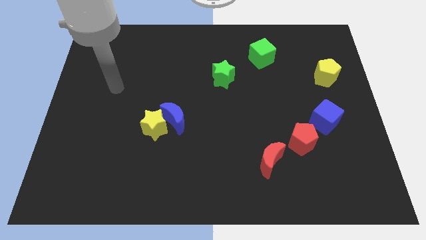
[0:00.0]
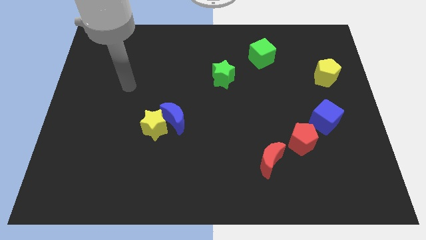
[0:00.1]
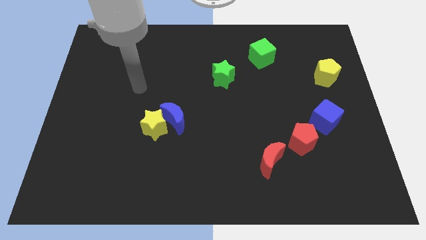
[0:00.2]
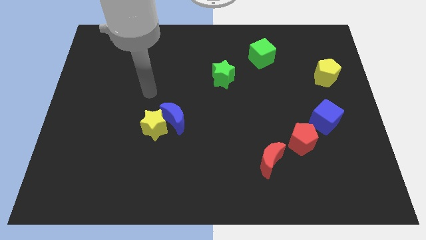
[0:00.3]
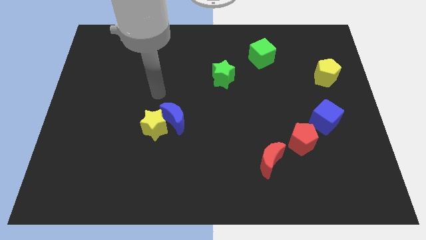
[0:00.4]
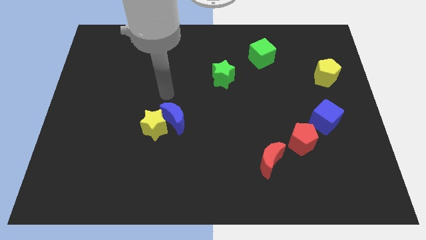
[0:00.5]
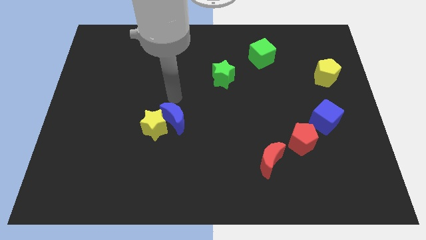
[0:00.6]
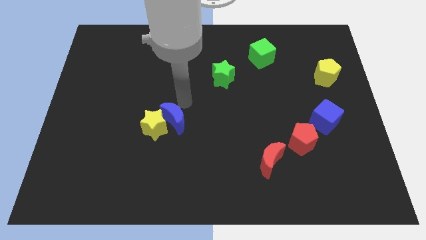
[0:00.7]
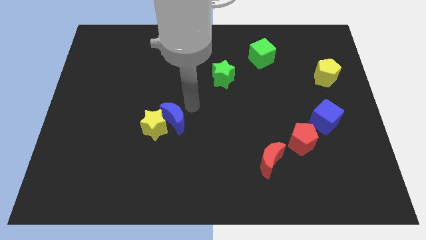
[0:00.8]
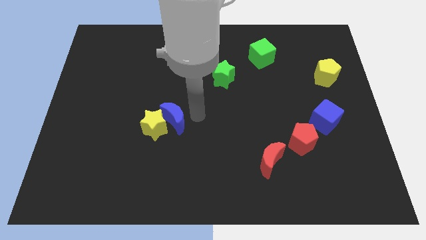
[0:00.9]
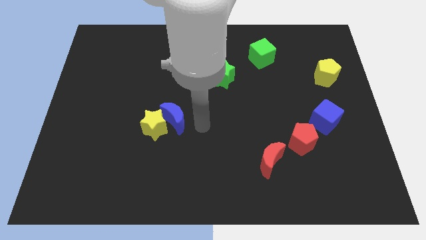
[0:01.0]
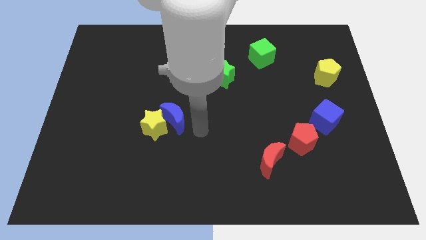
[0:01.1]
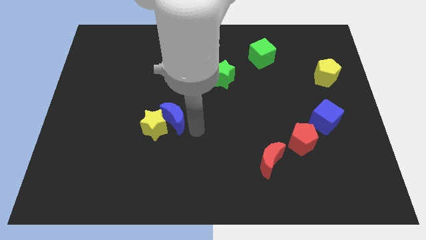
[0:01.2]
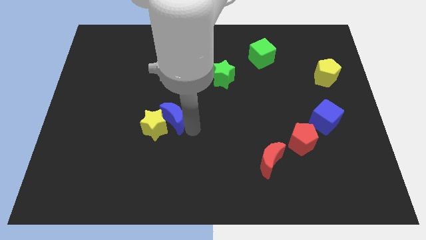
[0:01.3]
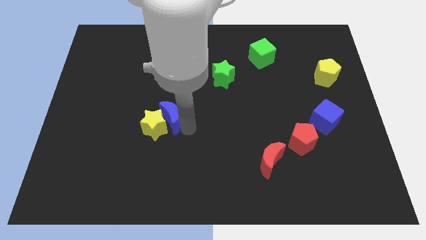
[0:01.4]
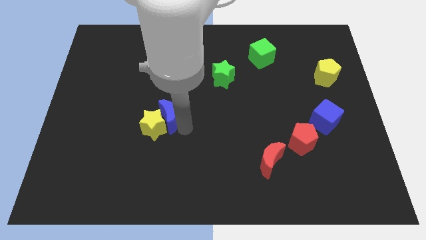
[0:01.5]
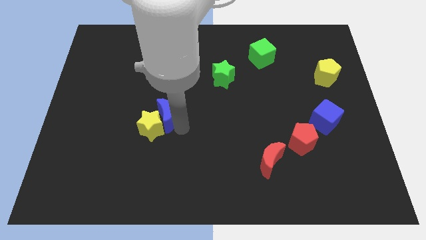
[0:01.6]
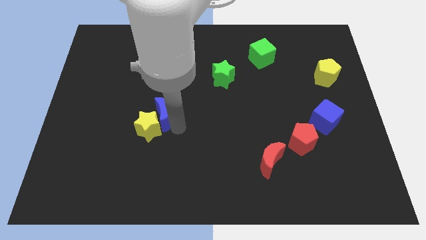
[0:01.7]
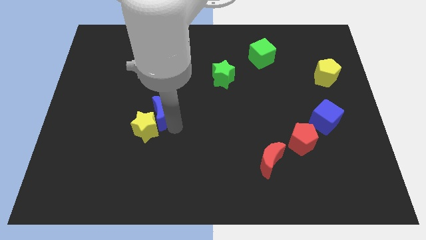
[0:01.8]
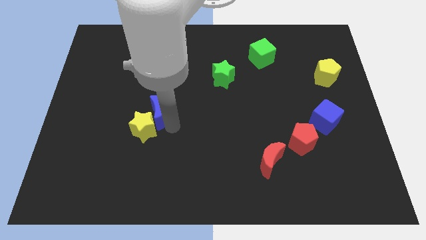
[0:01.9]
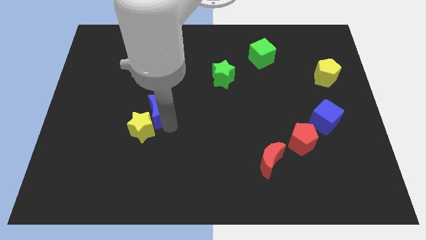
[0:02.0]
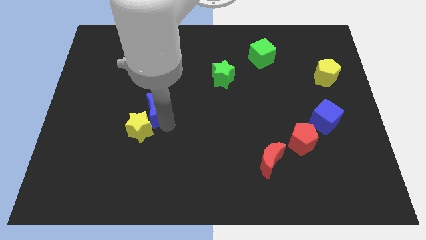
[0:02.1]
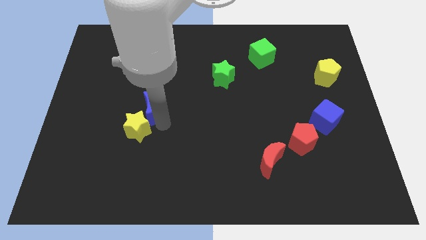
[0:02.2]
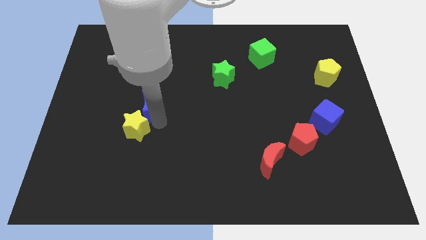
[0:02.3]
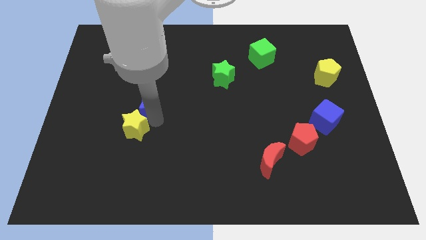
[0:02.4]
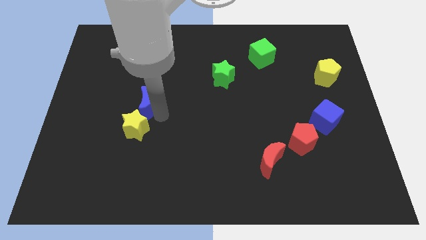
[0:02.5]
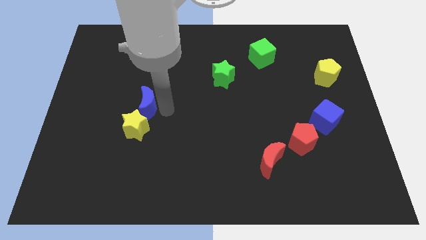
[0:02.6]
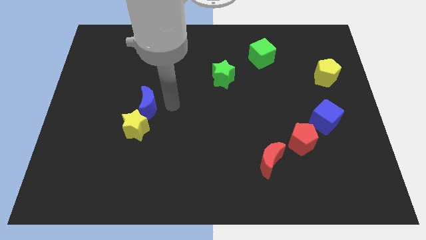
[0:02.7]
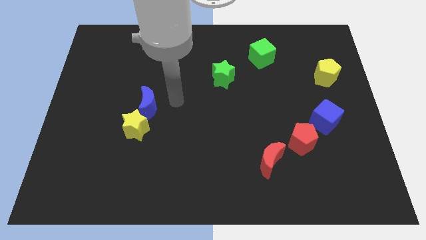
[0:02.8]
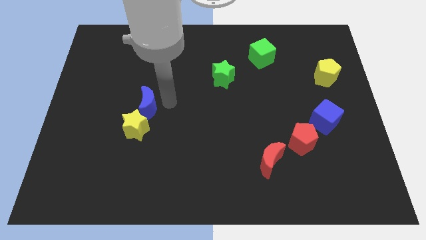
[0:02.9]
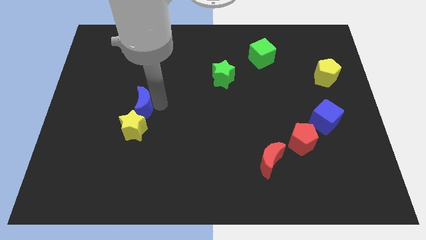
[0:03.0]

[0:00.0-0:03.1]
slightly move the blue moon left

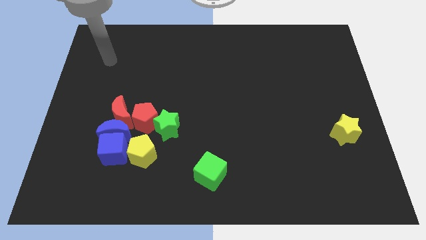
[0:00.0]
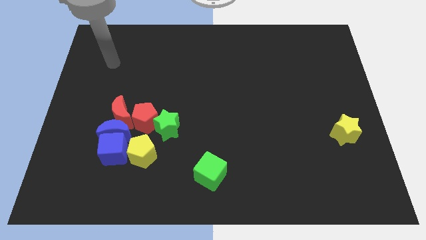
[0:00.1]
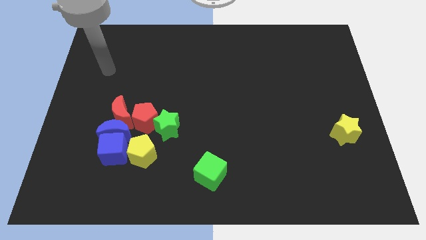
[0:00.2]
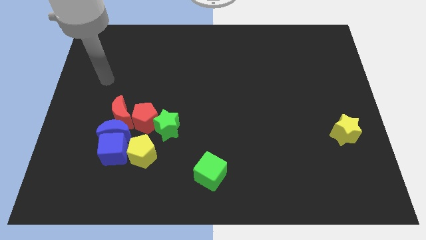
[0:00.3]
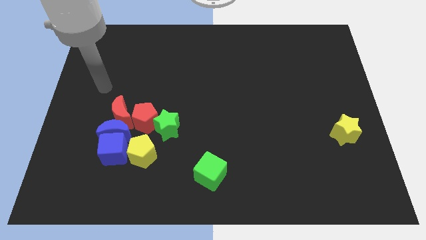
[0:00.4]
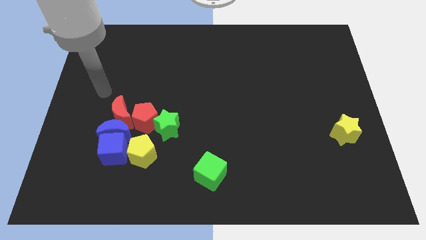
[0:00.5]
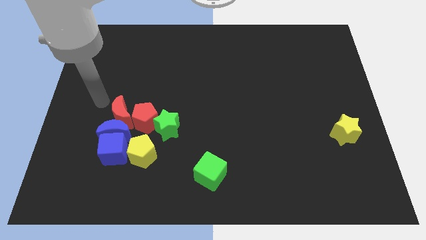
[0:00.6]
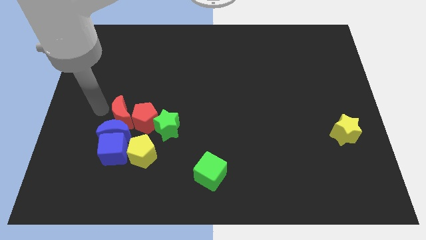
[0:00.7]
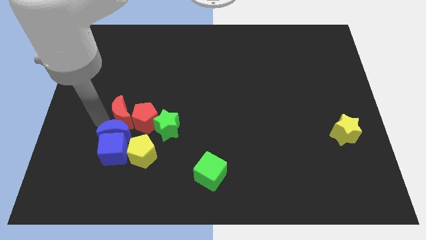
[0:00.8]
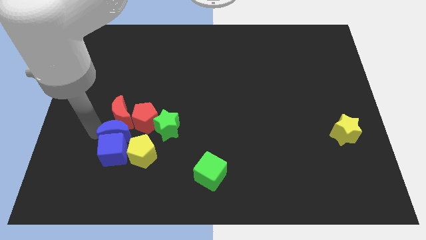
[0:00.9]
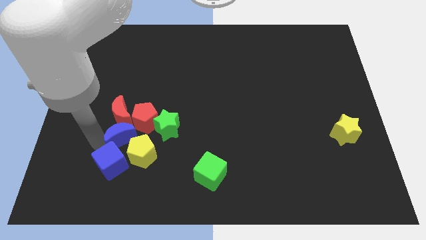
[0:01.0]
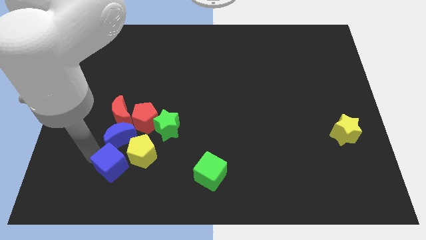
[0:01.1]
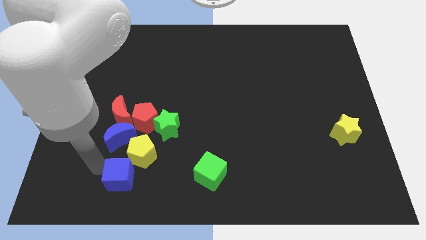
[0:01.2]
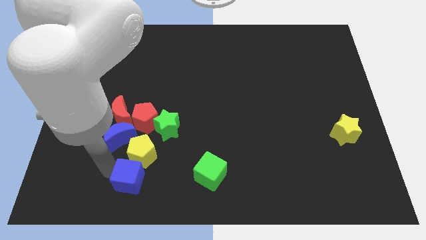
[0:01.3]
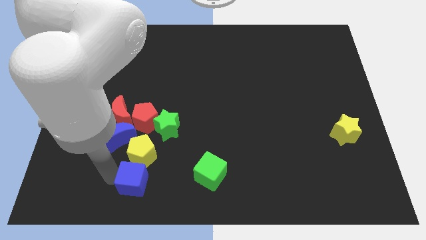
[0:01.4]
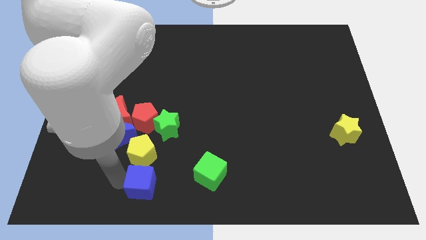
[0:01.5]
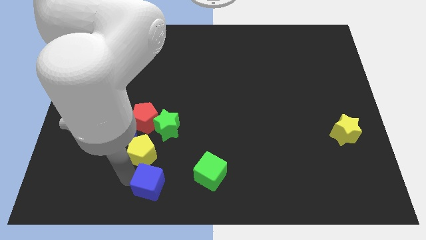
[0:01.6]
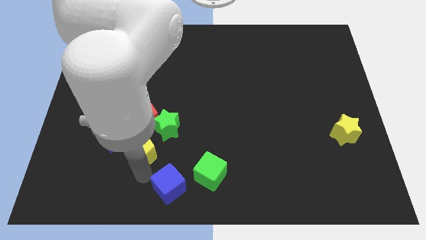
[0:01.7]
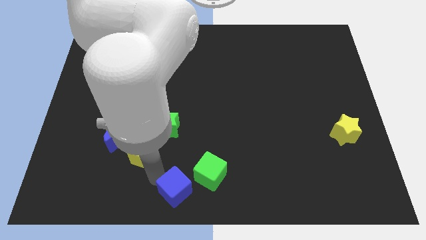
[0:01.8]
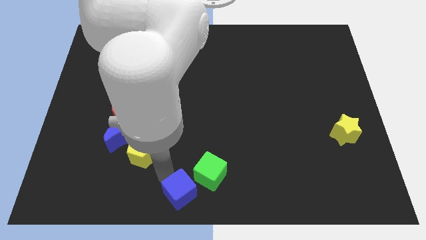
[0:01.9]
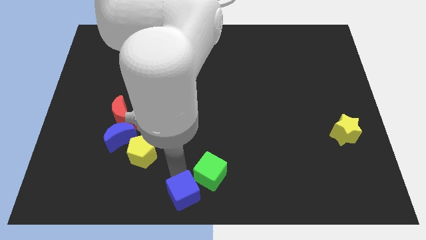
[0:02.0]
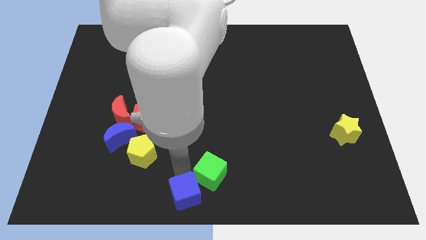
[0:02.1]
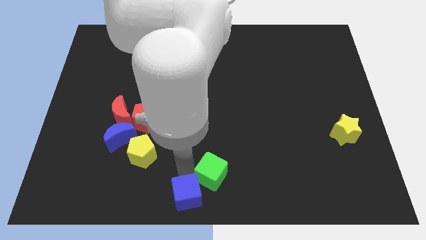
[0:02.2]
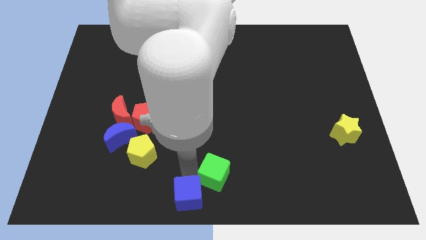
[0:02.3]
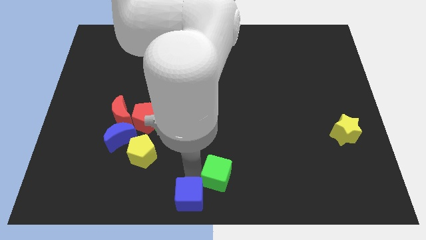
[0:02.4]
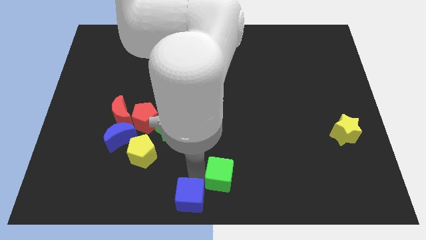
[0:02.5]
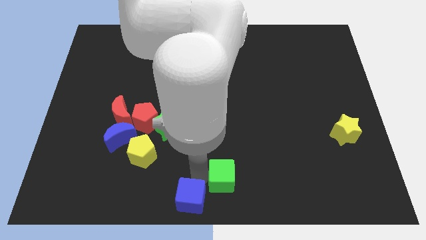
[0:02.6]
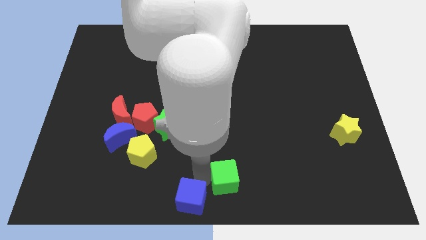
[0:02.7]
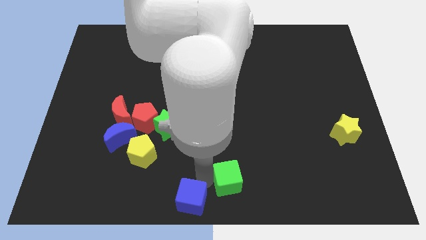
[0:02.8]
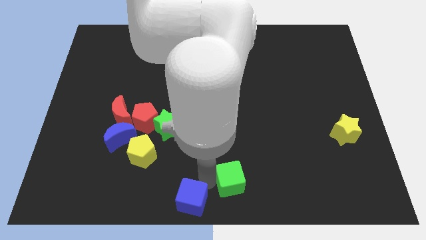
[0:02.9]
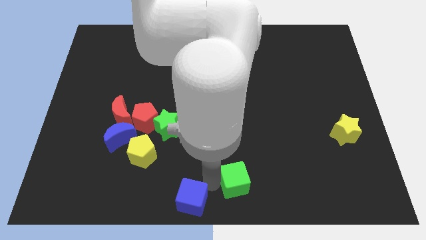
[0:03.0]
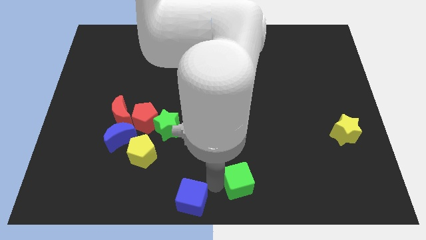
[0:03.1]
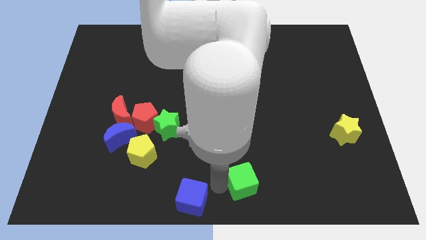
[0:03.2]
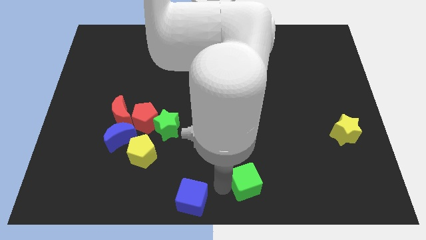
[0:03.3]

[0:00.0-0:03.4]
slide the green cube right slightly

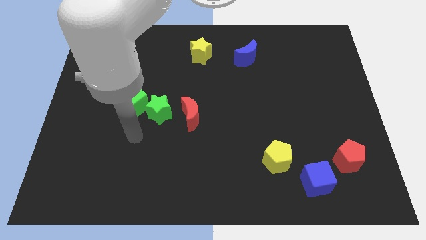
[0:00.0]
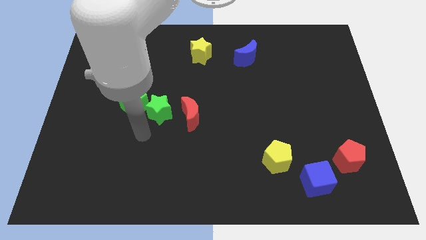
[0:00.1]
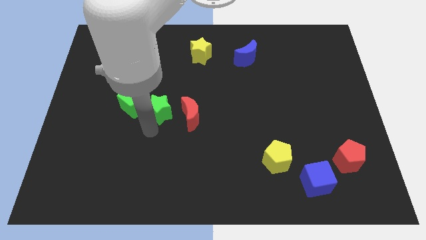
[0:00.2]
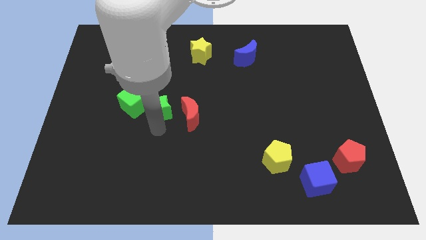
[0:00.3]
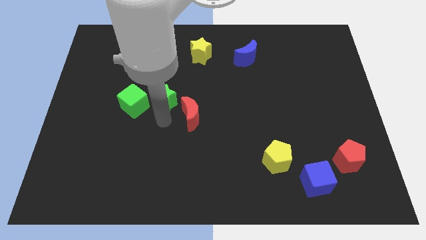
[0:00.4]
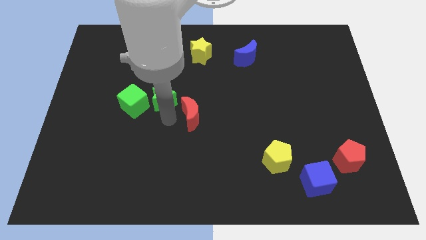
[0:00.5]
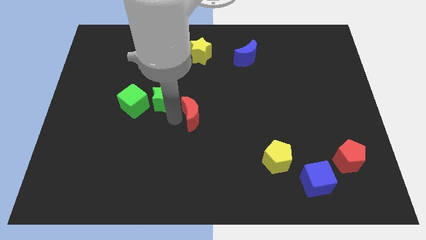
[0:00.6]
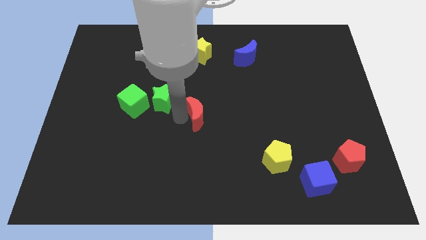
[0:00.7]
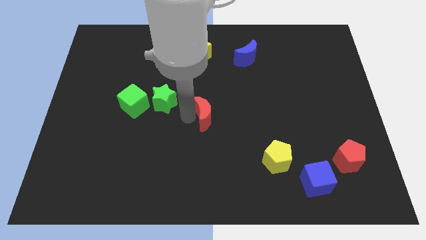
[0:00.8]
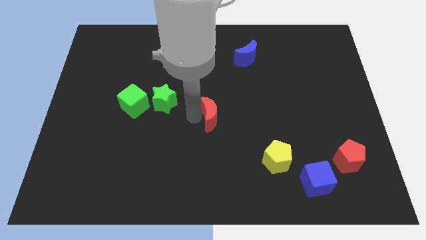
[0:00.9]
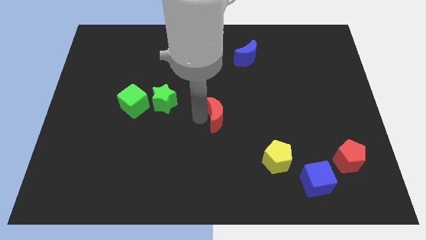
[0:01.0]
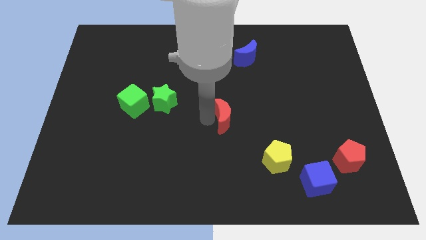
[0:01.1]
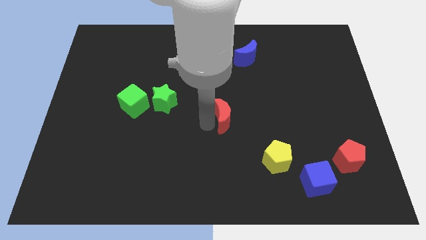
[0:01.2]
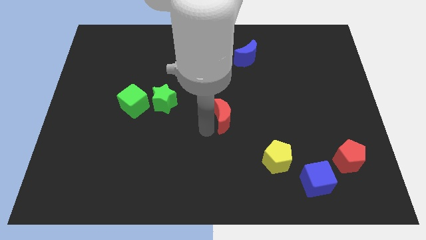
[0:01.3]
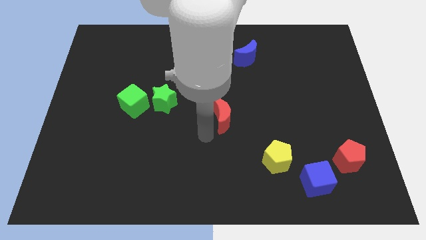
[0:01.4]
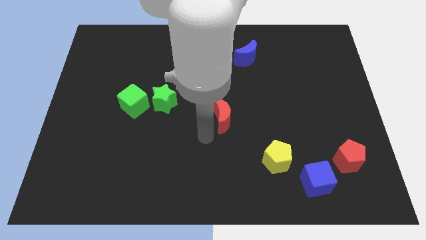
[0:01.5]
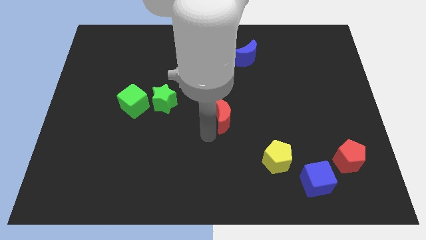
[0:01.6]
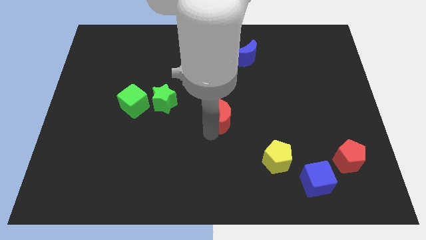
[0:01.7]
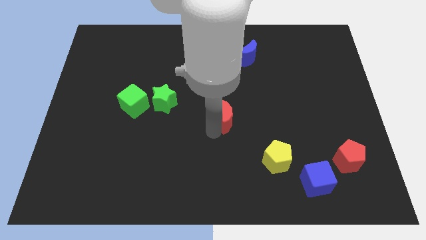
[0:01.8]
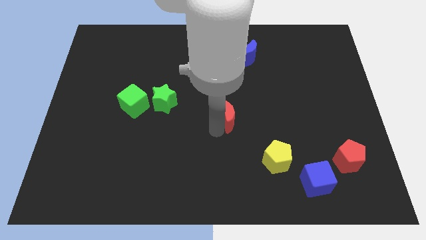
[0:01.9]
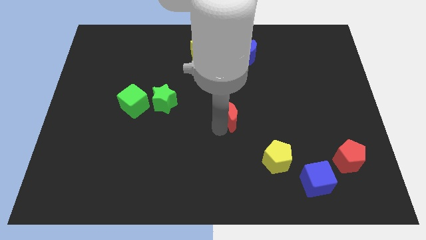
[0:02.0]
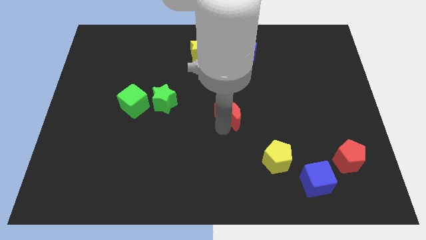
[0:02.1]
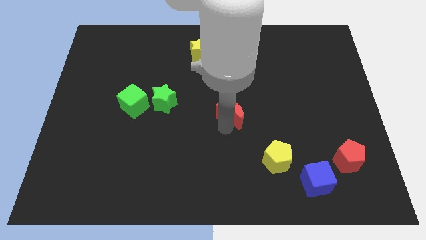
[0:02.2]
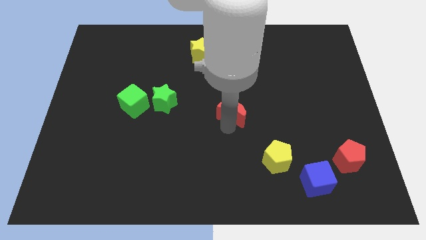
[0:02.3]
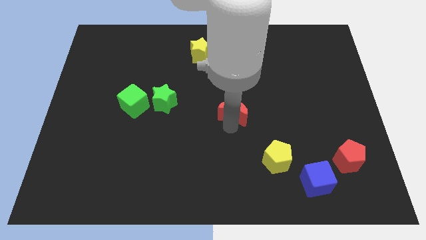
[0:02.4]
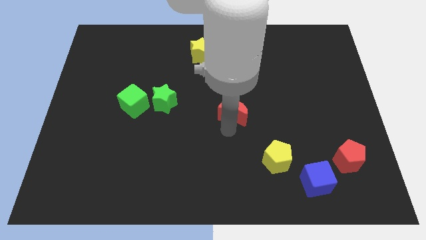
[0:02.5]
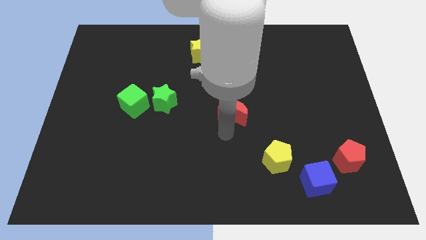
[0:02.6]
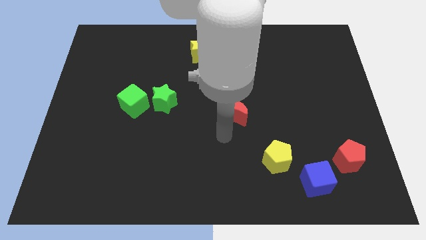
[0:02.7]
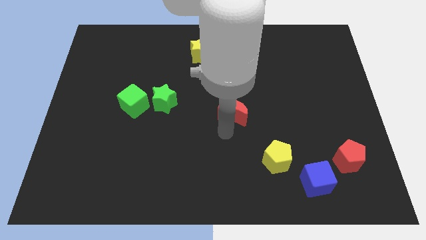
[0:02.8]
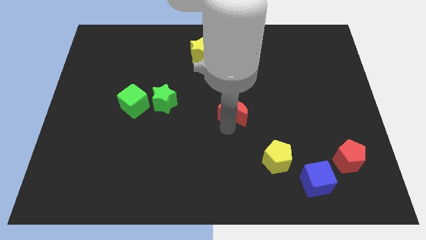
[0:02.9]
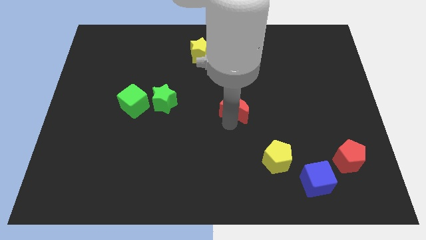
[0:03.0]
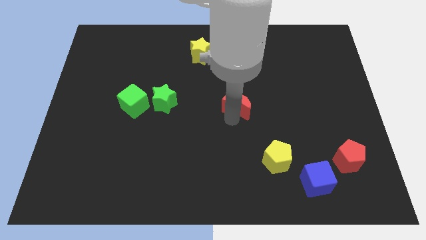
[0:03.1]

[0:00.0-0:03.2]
move the red moon a bit up and then to the right
